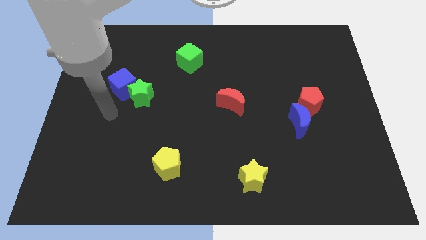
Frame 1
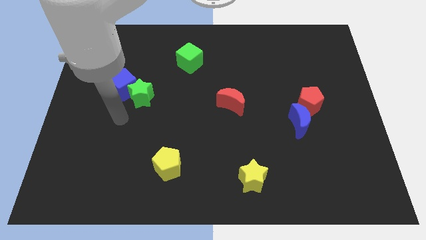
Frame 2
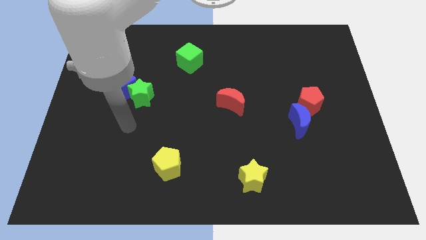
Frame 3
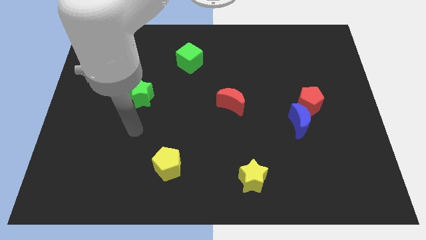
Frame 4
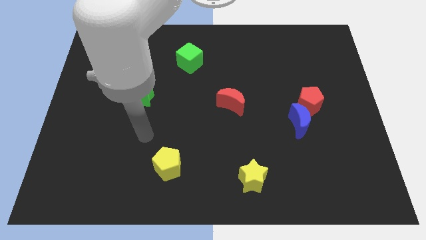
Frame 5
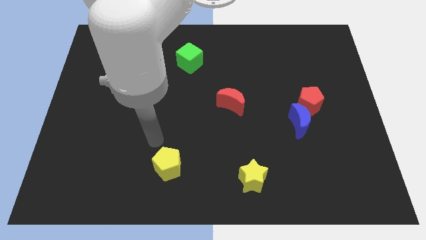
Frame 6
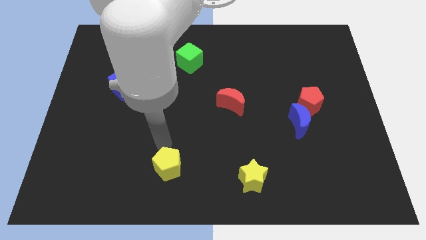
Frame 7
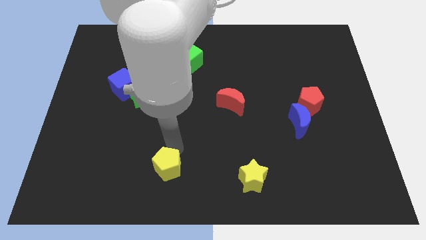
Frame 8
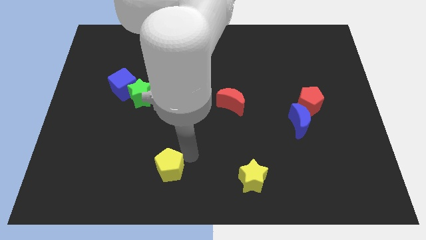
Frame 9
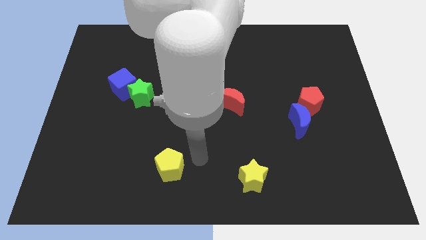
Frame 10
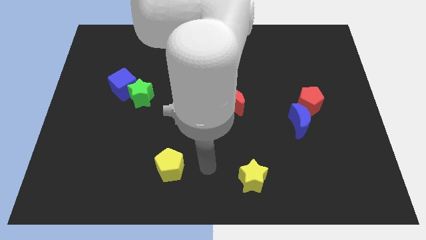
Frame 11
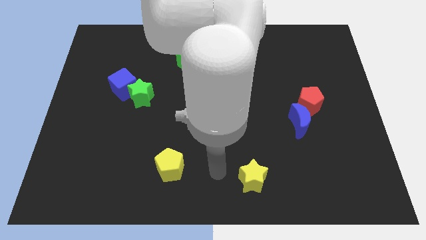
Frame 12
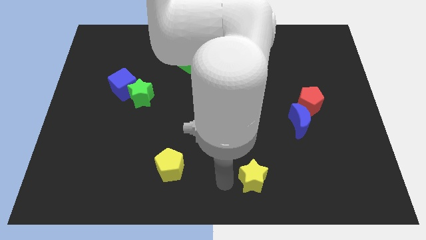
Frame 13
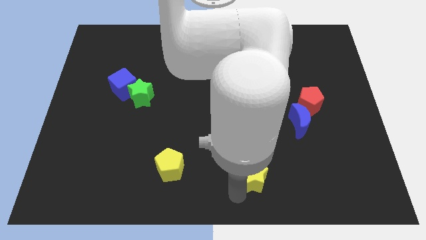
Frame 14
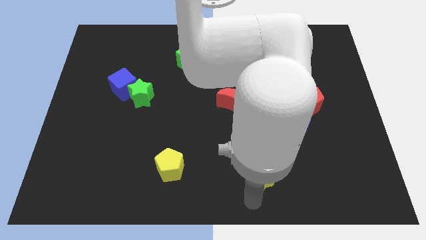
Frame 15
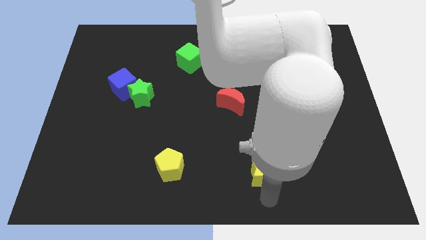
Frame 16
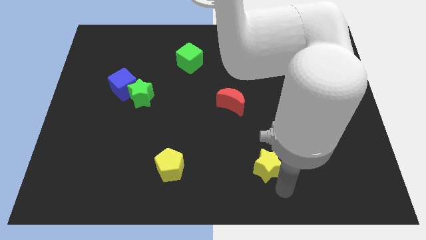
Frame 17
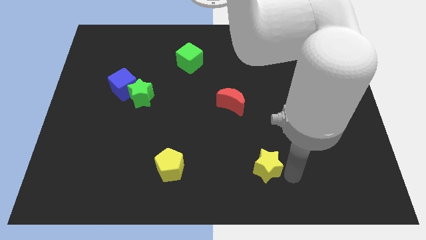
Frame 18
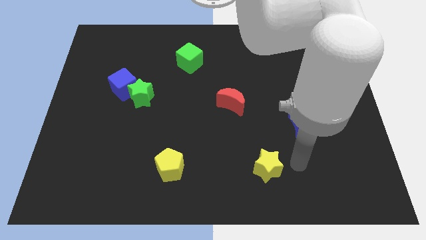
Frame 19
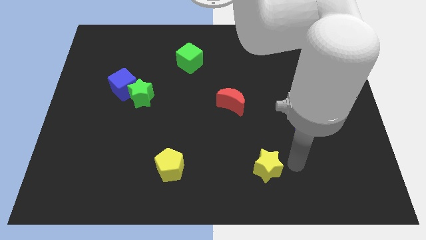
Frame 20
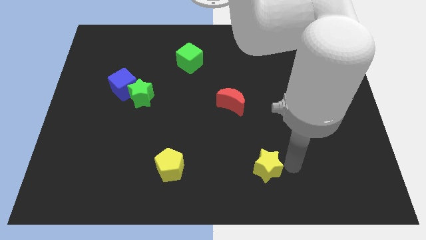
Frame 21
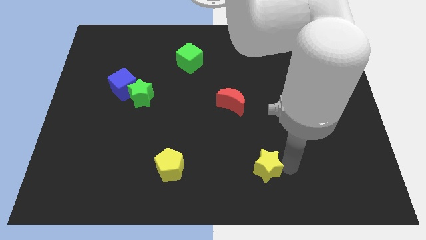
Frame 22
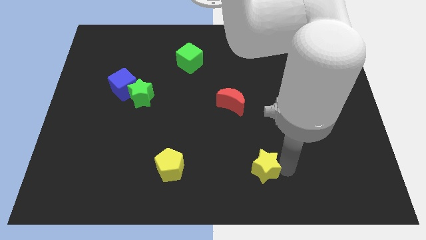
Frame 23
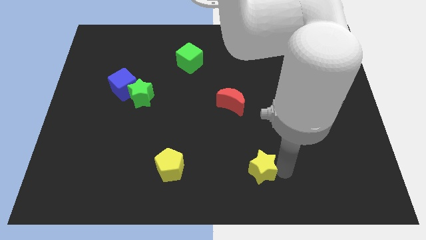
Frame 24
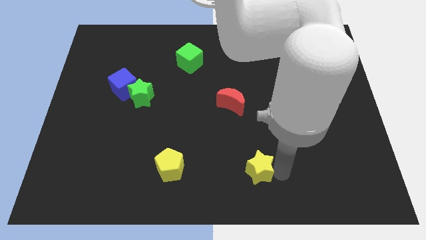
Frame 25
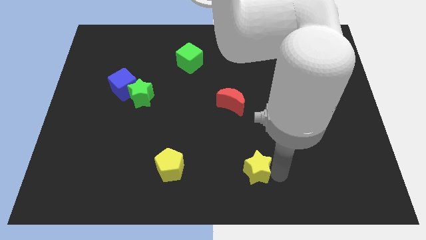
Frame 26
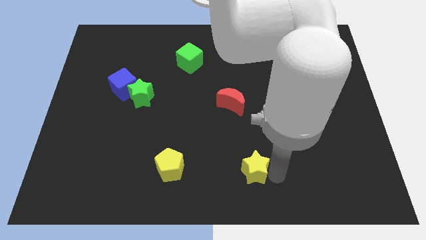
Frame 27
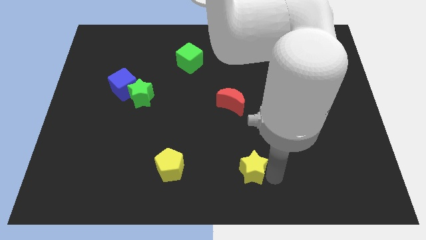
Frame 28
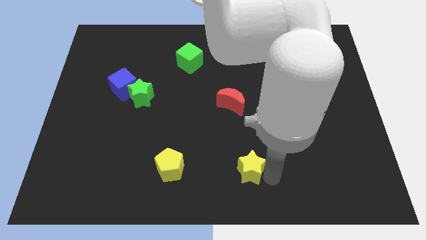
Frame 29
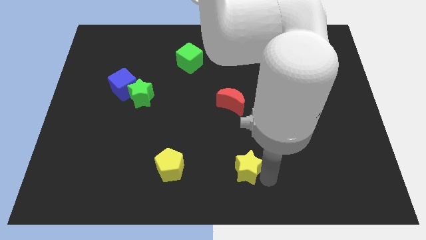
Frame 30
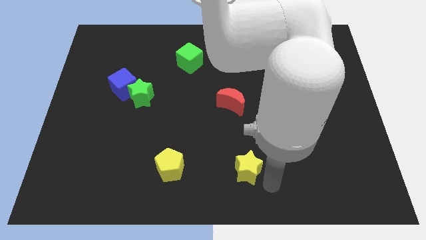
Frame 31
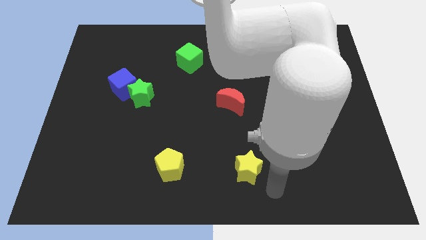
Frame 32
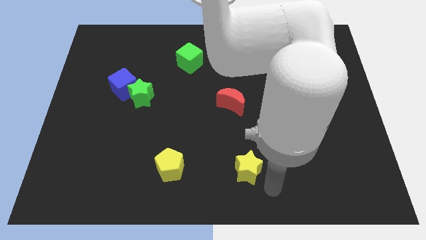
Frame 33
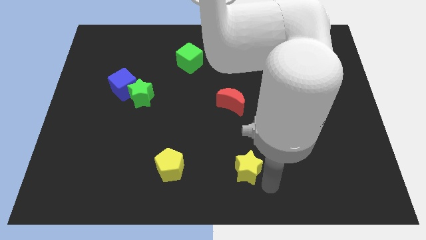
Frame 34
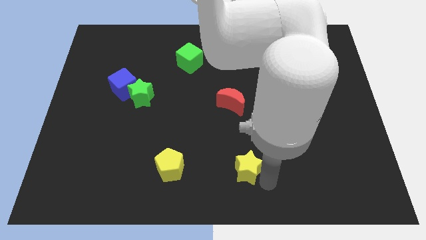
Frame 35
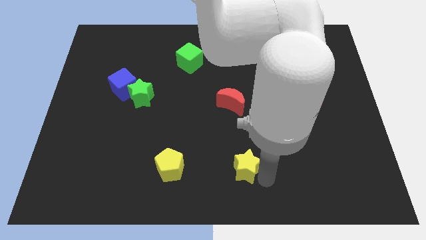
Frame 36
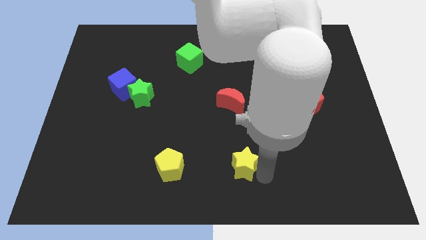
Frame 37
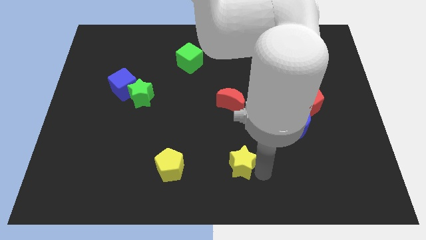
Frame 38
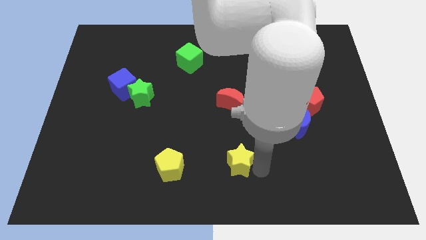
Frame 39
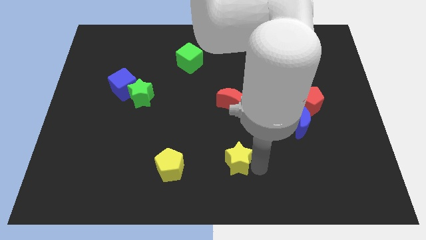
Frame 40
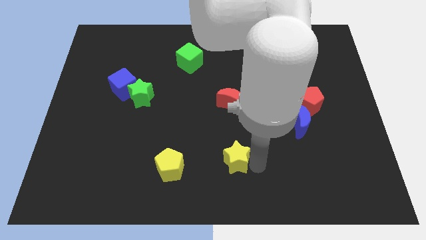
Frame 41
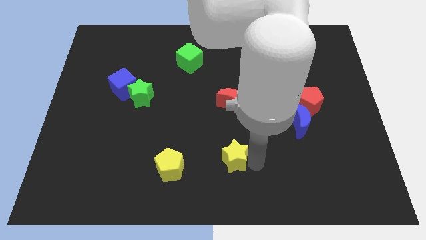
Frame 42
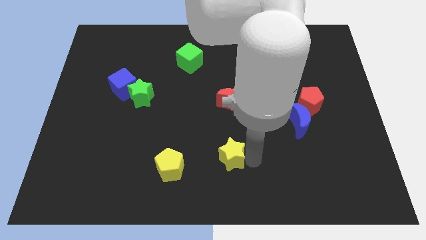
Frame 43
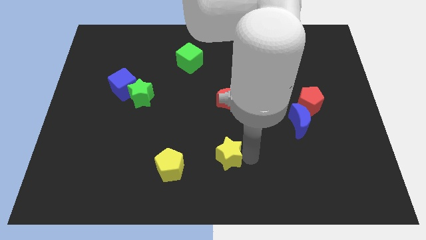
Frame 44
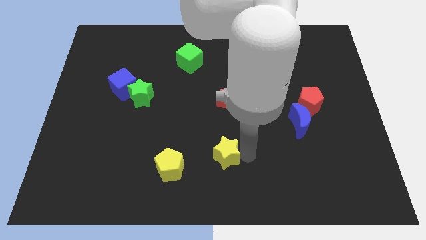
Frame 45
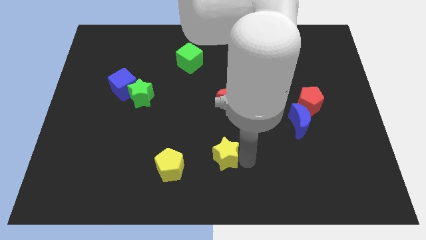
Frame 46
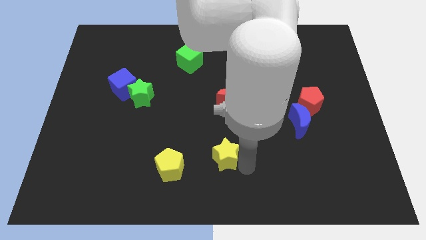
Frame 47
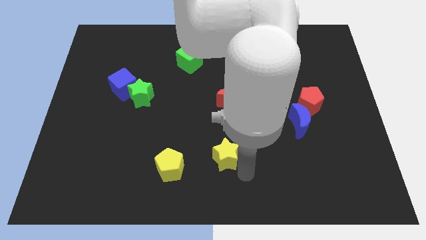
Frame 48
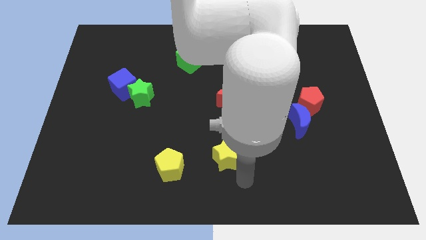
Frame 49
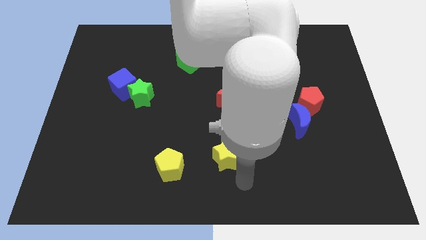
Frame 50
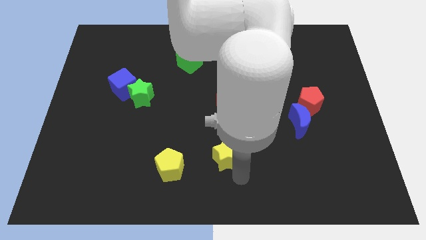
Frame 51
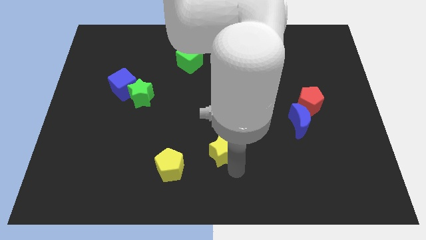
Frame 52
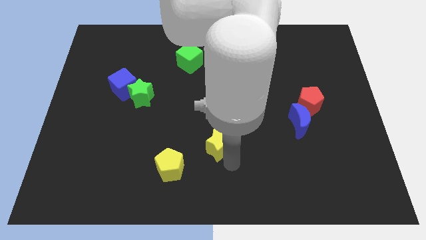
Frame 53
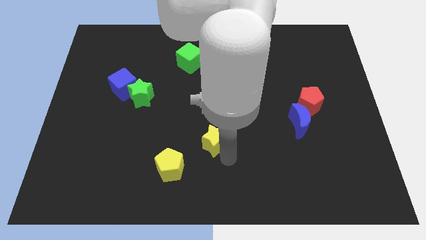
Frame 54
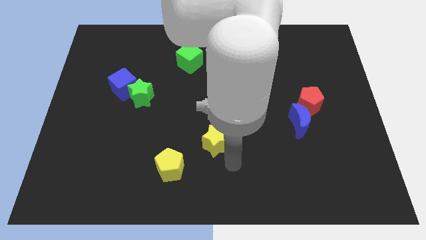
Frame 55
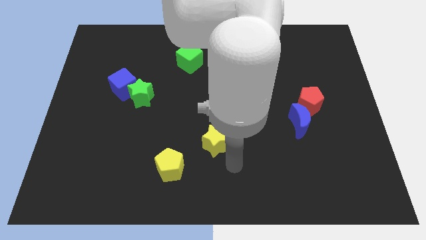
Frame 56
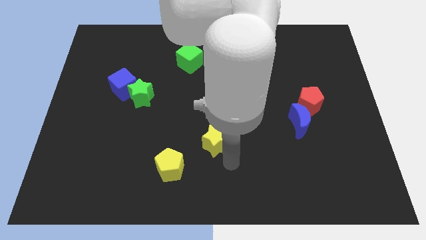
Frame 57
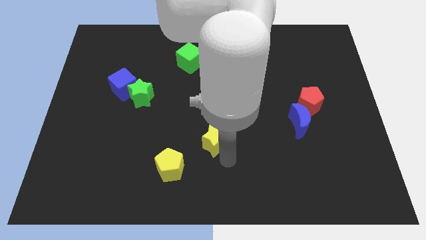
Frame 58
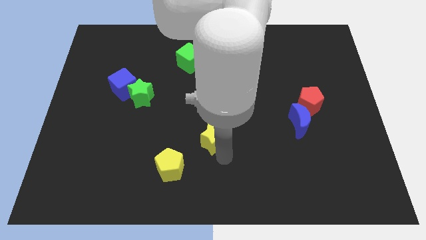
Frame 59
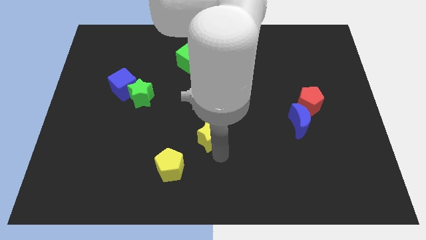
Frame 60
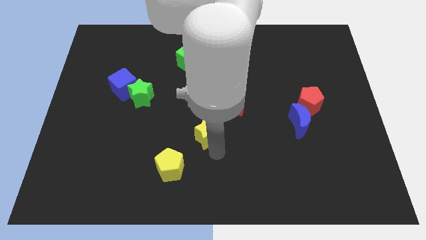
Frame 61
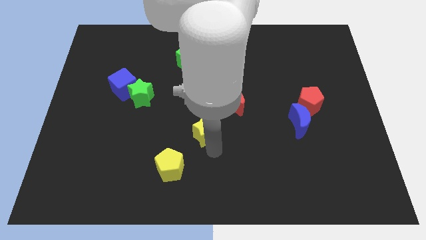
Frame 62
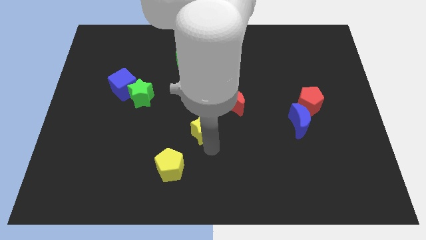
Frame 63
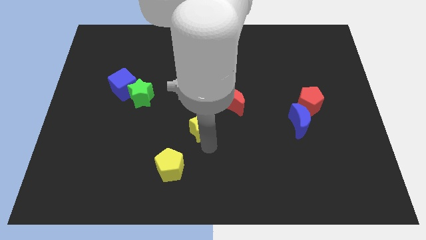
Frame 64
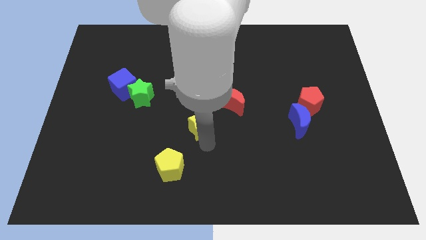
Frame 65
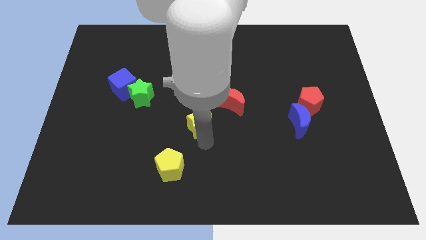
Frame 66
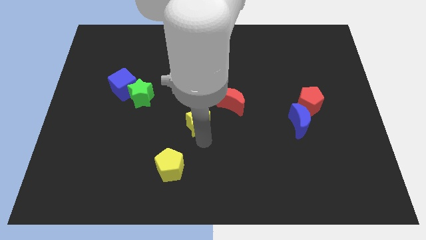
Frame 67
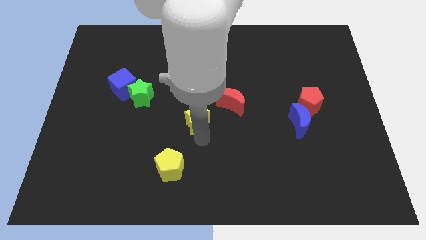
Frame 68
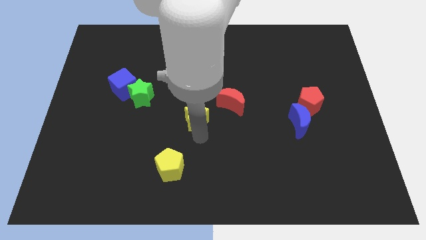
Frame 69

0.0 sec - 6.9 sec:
push the yellow star just left of the red moon
